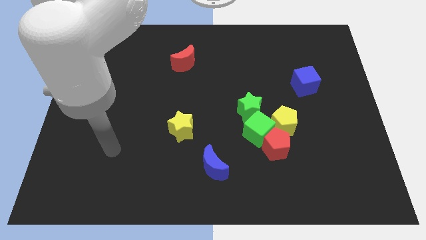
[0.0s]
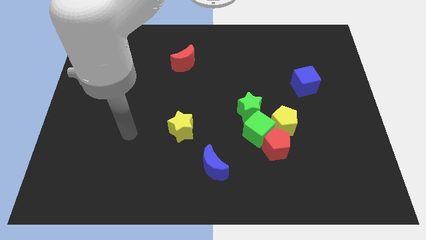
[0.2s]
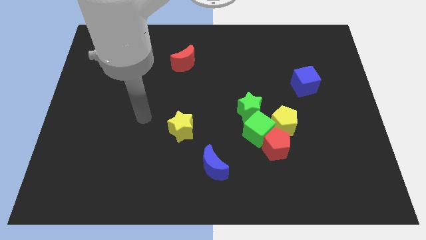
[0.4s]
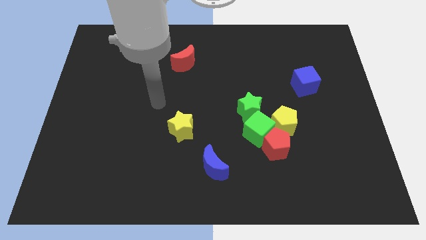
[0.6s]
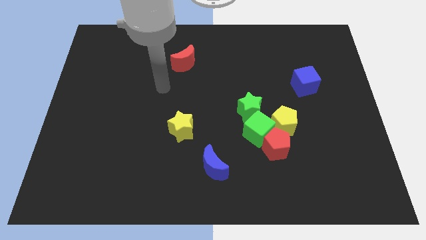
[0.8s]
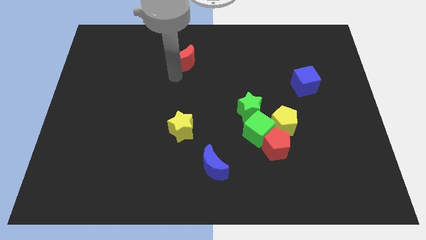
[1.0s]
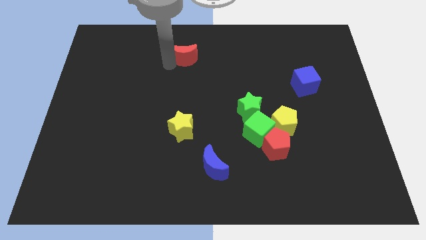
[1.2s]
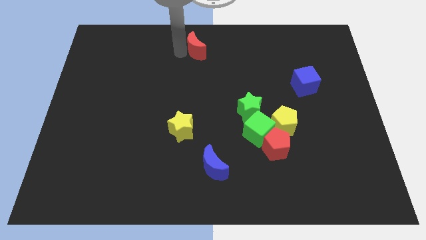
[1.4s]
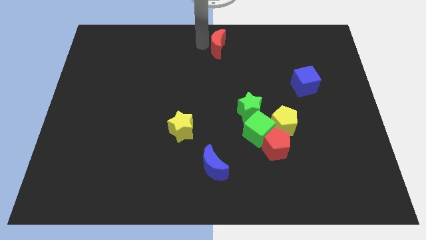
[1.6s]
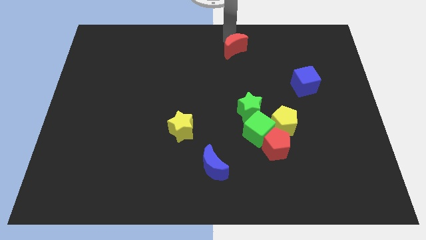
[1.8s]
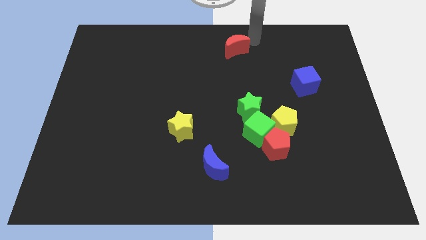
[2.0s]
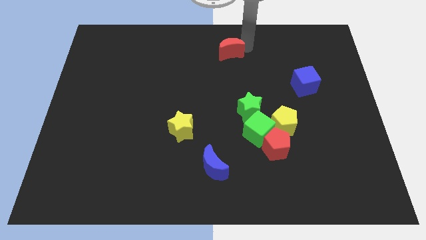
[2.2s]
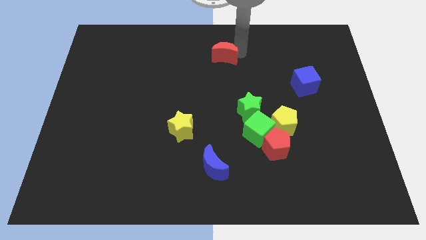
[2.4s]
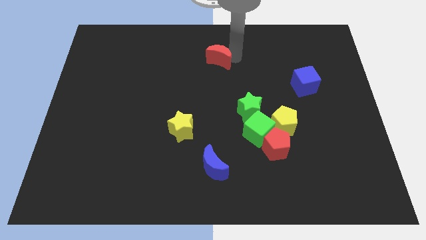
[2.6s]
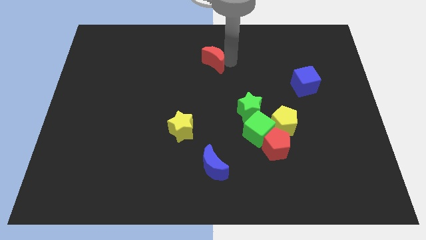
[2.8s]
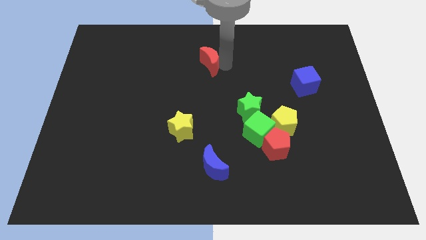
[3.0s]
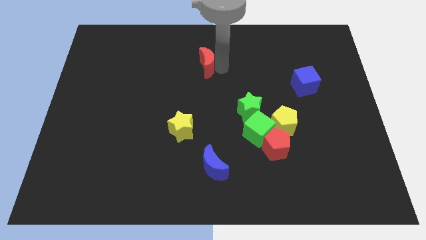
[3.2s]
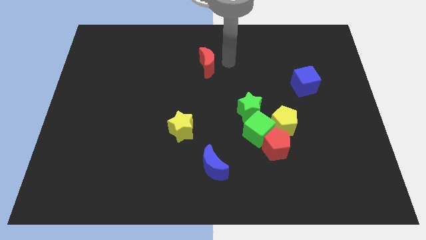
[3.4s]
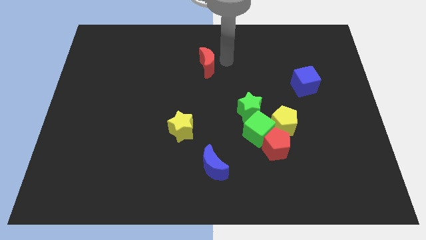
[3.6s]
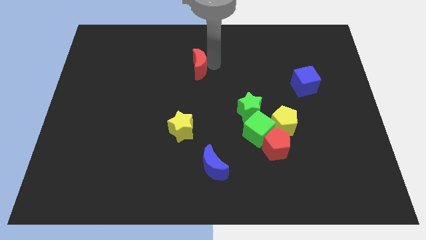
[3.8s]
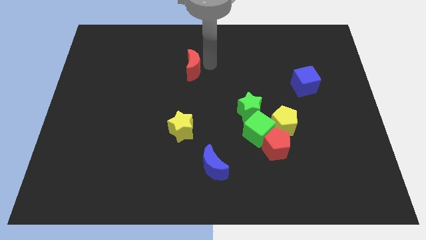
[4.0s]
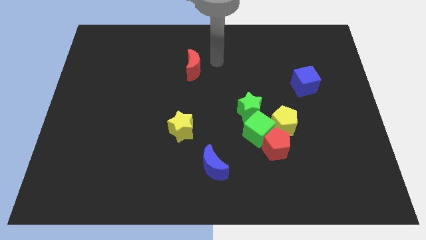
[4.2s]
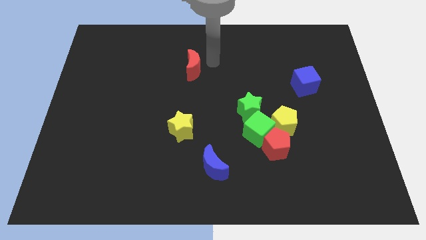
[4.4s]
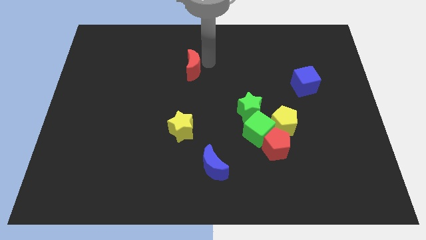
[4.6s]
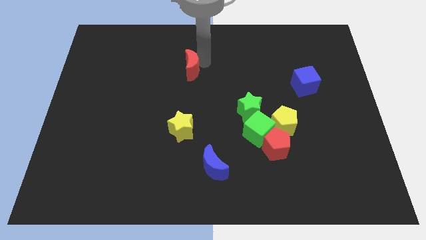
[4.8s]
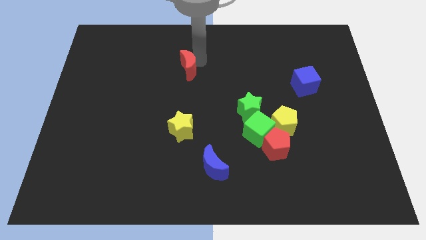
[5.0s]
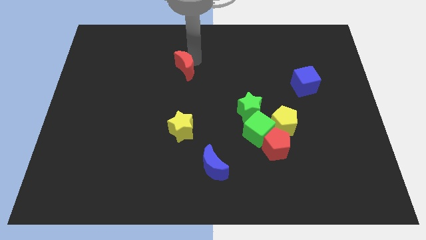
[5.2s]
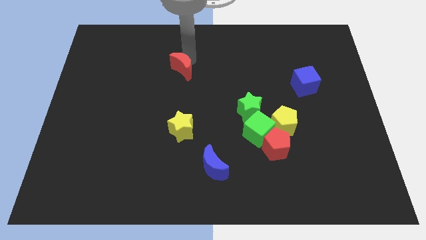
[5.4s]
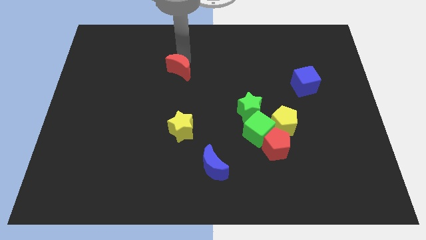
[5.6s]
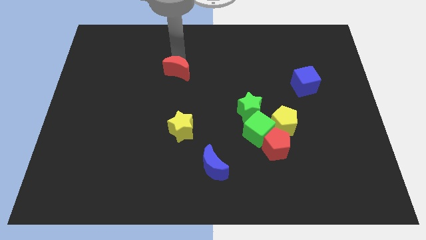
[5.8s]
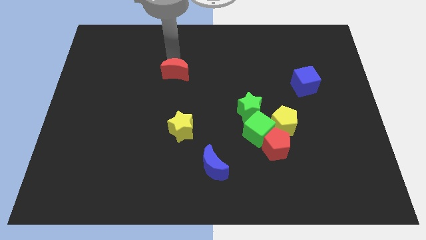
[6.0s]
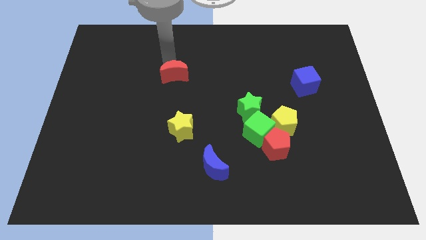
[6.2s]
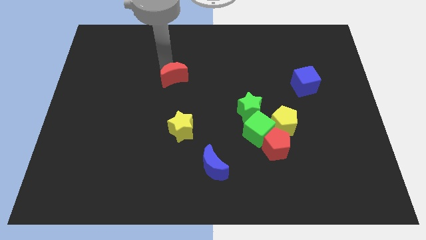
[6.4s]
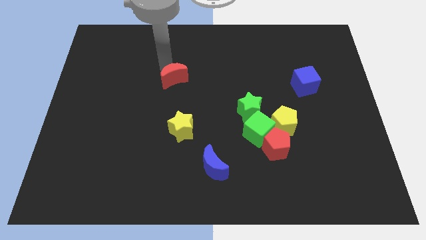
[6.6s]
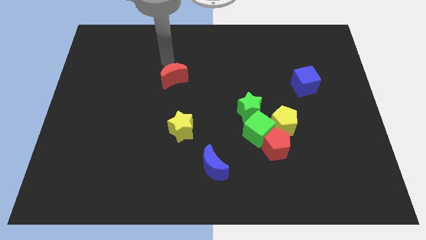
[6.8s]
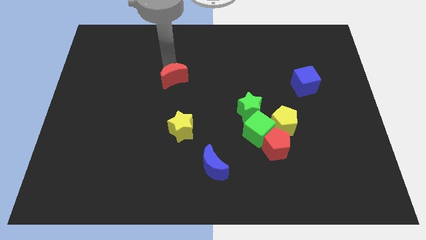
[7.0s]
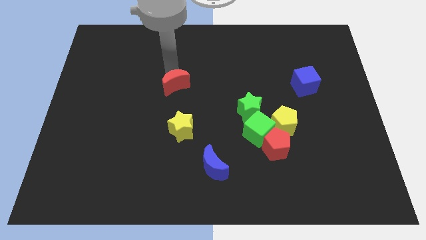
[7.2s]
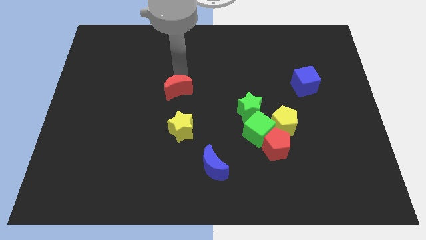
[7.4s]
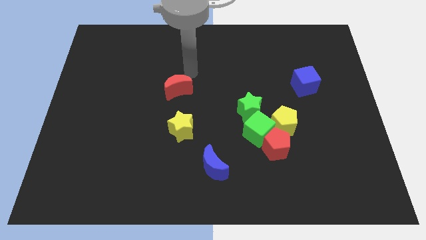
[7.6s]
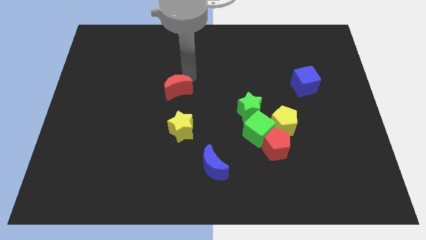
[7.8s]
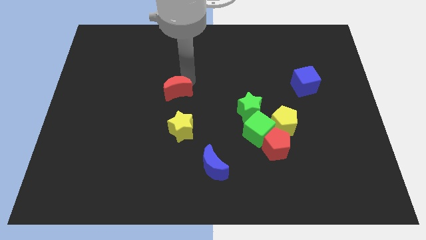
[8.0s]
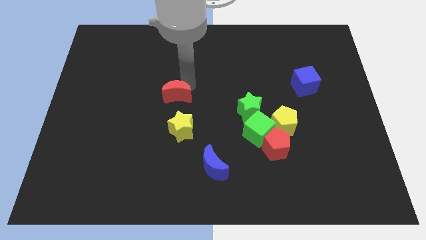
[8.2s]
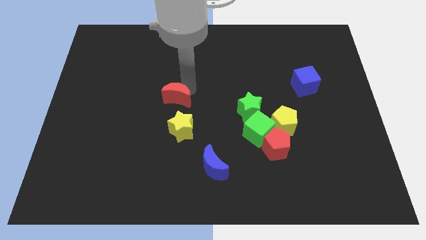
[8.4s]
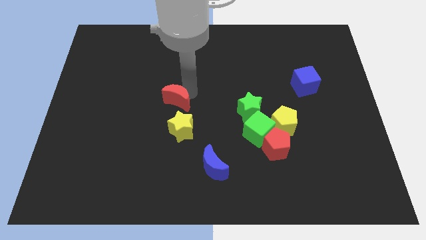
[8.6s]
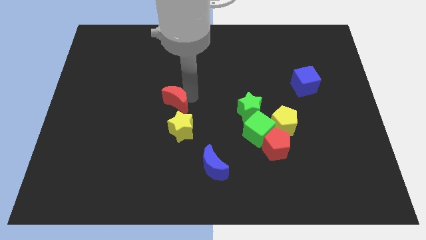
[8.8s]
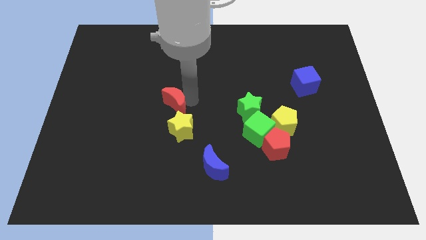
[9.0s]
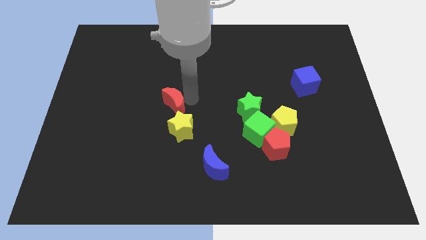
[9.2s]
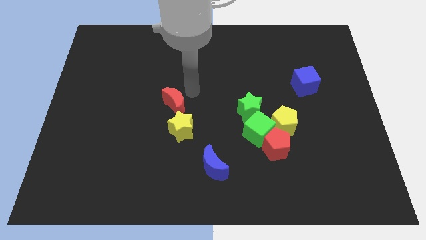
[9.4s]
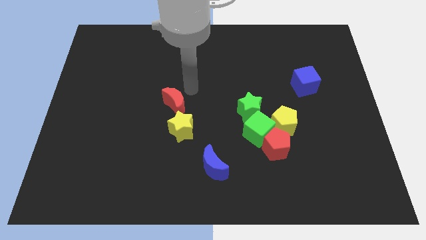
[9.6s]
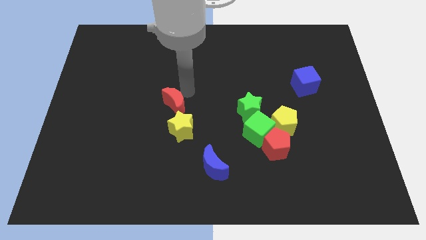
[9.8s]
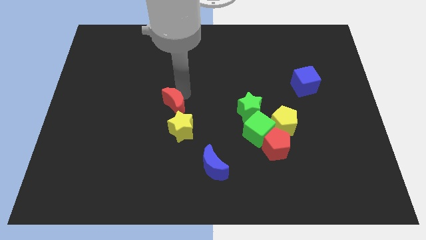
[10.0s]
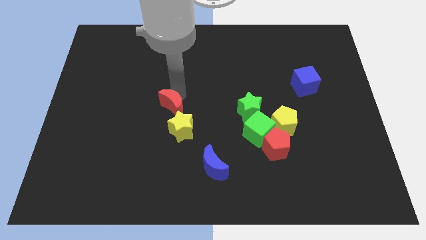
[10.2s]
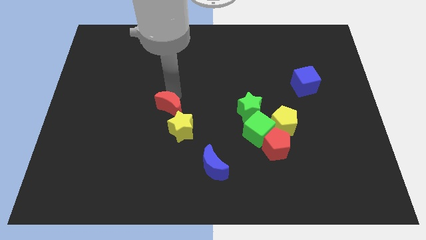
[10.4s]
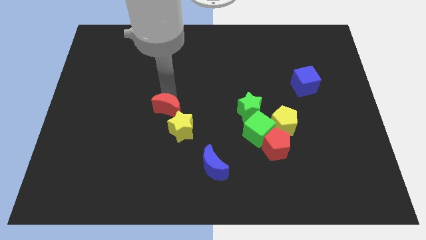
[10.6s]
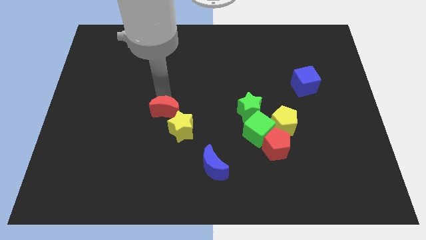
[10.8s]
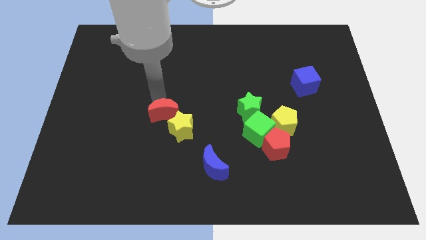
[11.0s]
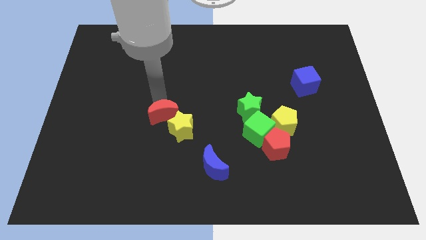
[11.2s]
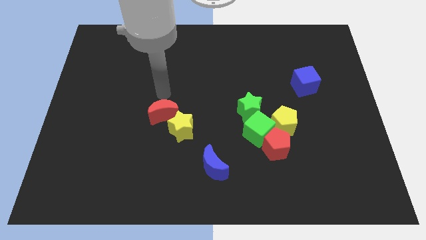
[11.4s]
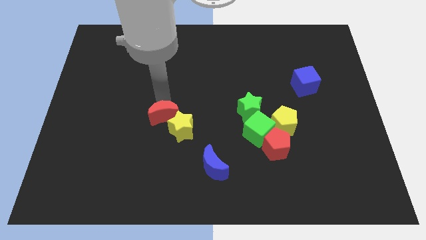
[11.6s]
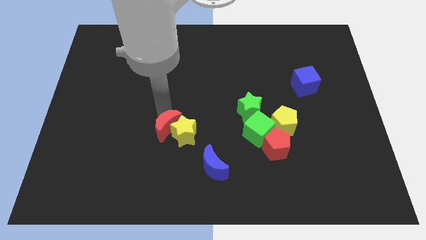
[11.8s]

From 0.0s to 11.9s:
slide the red moon down

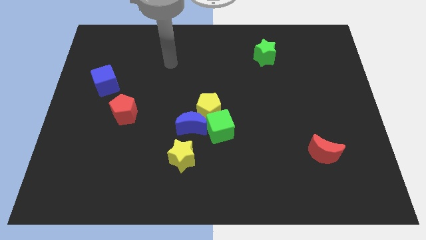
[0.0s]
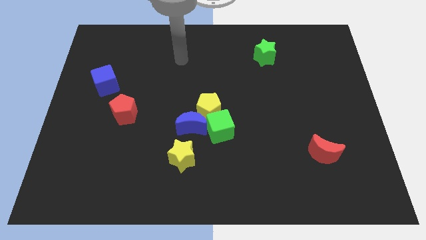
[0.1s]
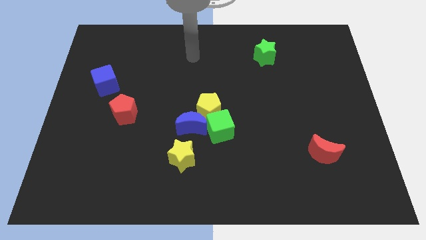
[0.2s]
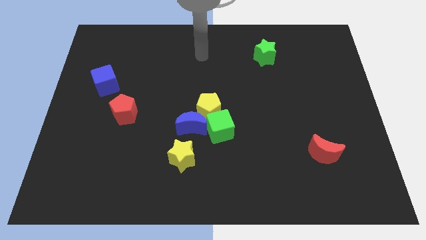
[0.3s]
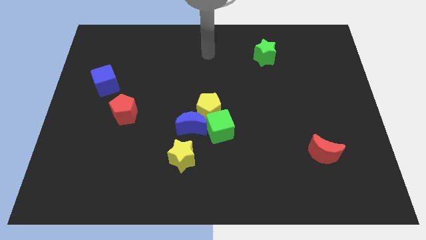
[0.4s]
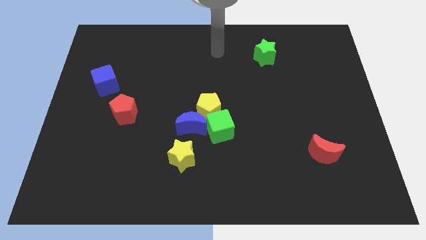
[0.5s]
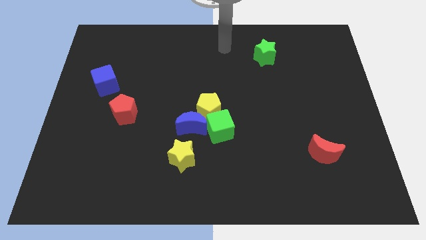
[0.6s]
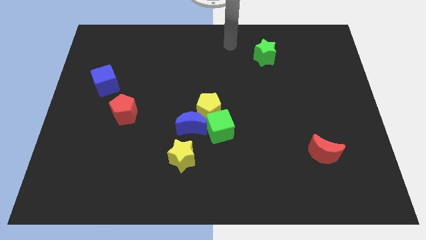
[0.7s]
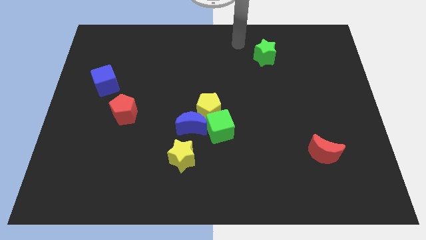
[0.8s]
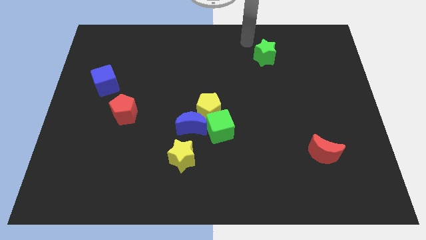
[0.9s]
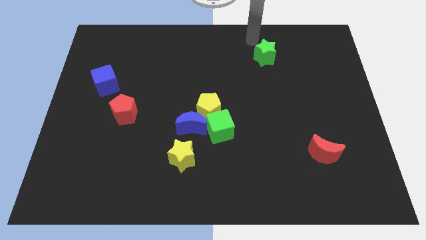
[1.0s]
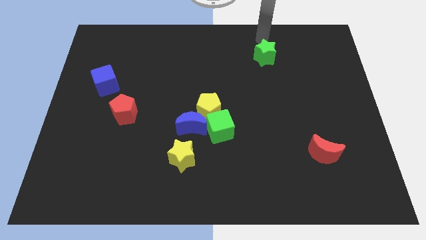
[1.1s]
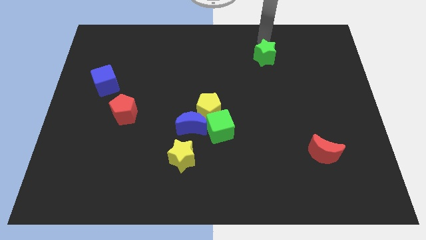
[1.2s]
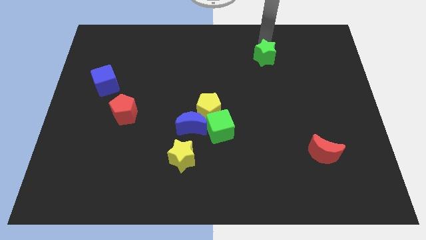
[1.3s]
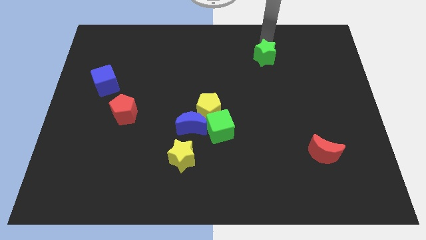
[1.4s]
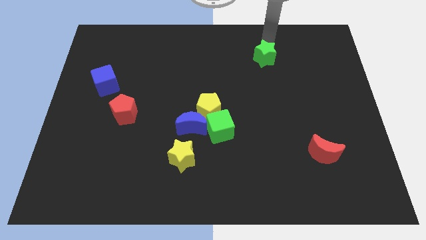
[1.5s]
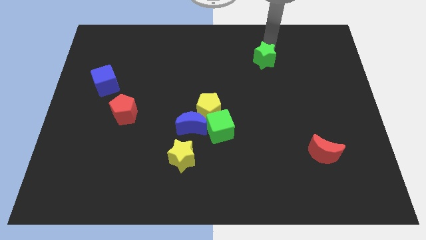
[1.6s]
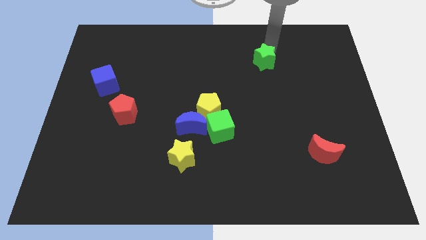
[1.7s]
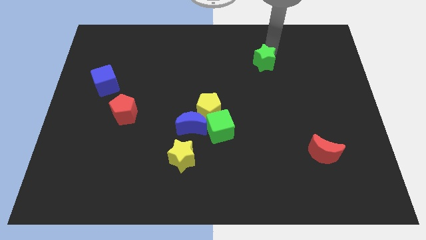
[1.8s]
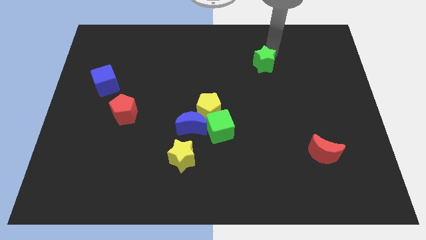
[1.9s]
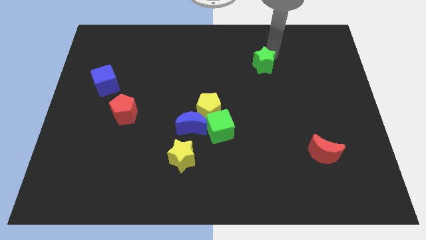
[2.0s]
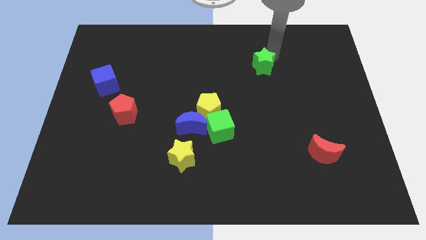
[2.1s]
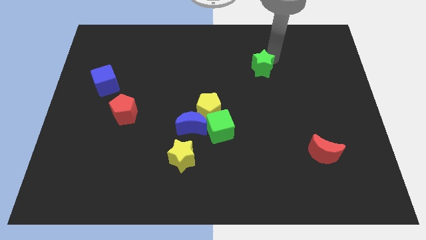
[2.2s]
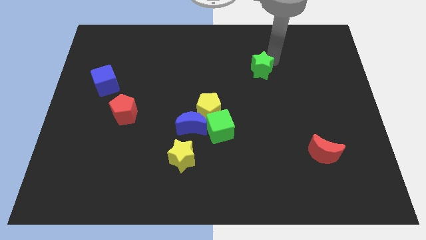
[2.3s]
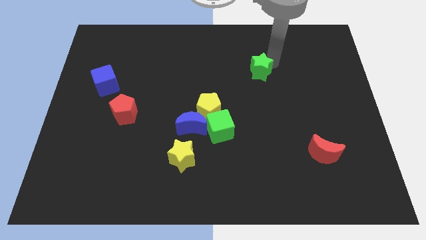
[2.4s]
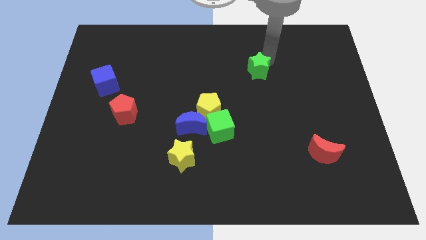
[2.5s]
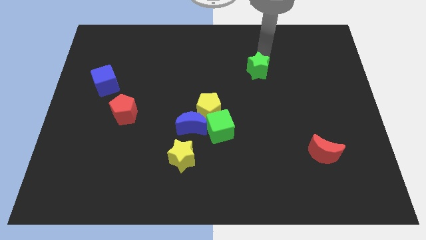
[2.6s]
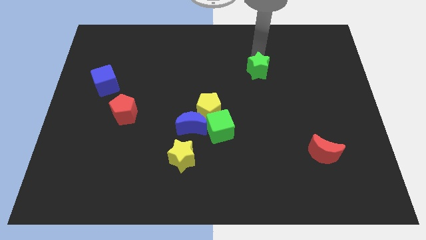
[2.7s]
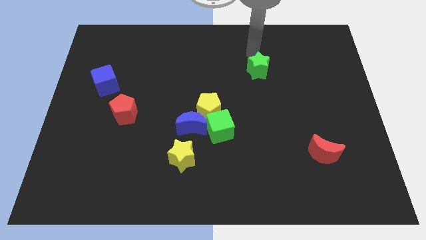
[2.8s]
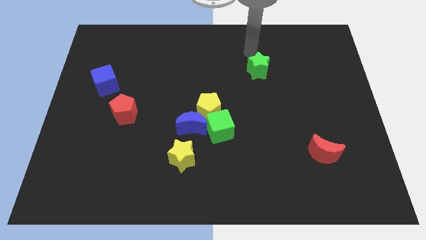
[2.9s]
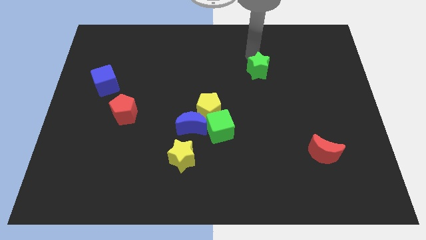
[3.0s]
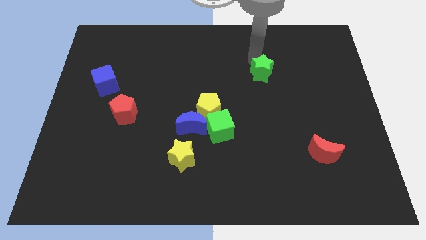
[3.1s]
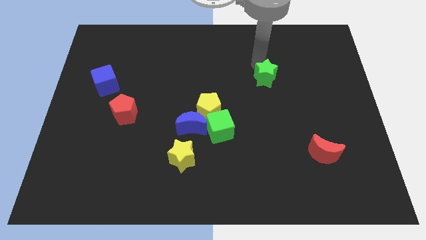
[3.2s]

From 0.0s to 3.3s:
slightly move the green star down
